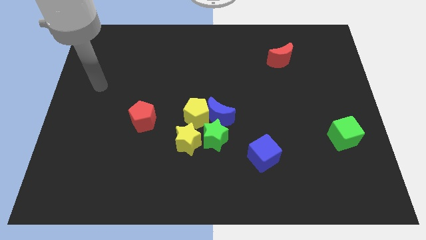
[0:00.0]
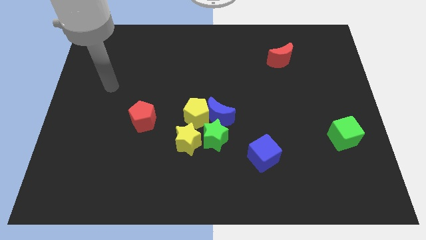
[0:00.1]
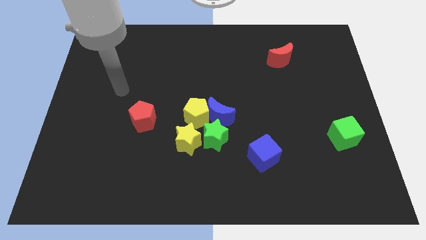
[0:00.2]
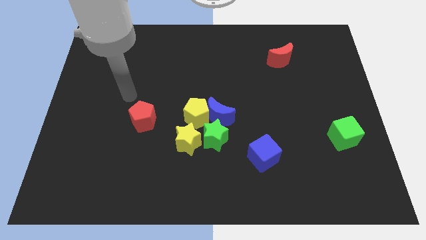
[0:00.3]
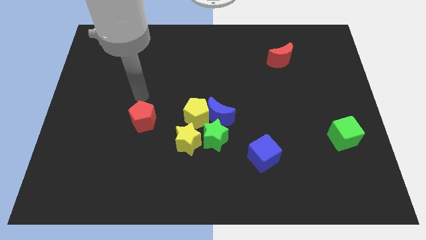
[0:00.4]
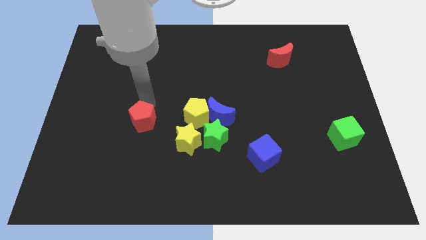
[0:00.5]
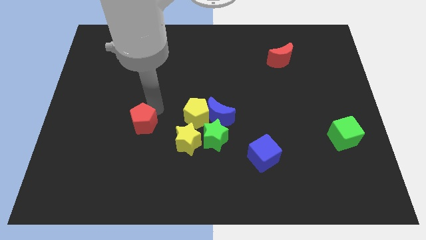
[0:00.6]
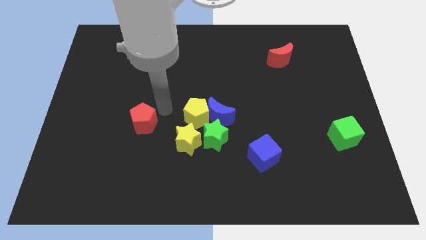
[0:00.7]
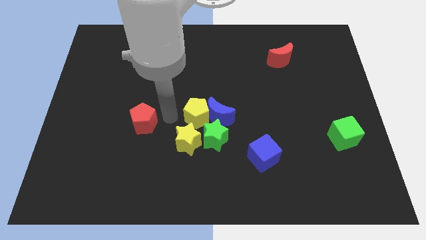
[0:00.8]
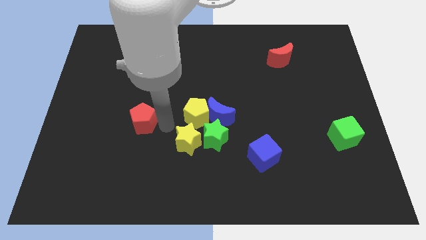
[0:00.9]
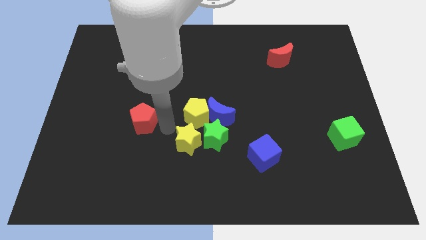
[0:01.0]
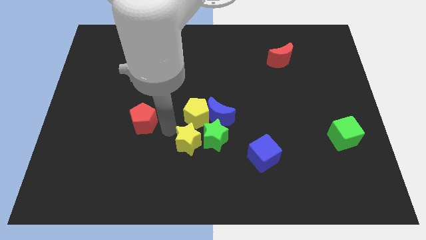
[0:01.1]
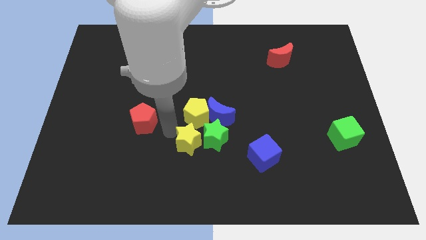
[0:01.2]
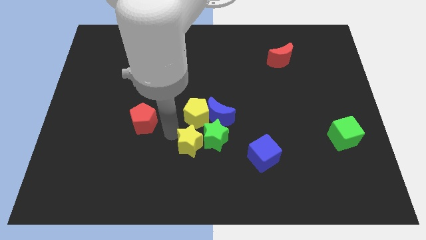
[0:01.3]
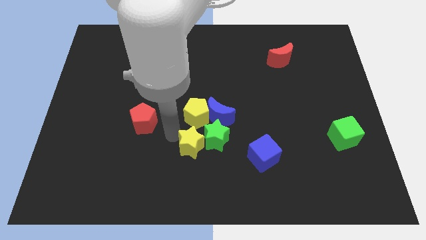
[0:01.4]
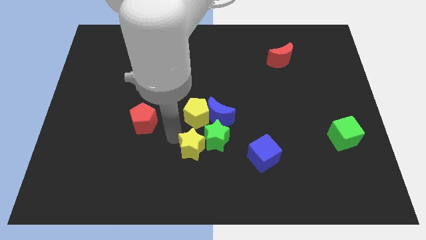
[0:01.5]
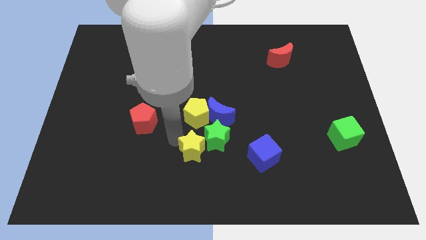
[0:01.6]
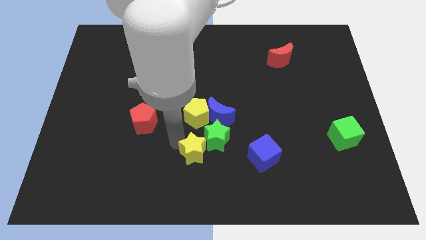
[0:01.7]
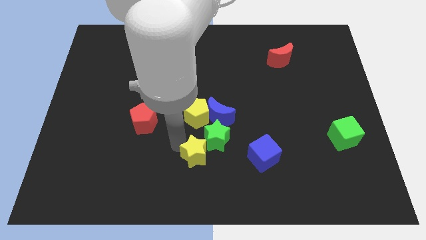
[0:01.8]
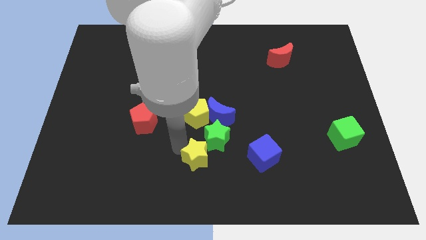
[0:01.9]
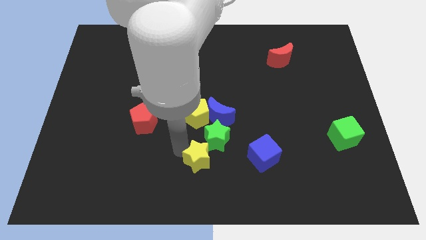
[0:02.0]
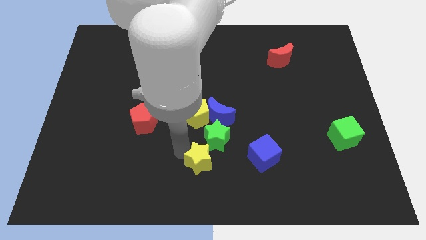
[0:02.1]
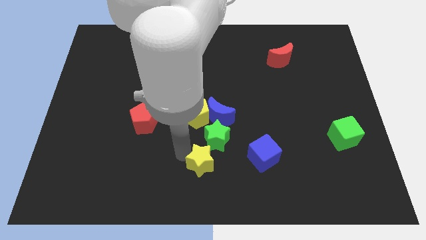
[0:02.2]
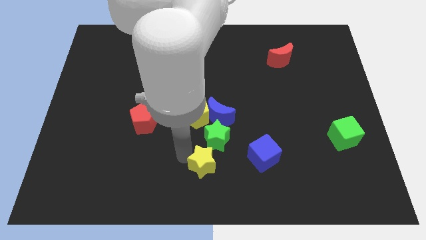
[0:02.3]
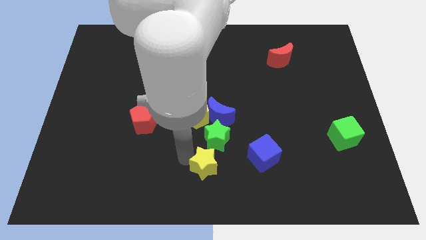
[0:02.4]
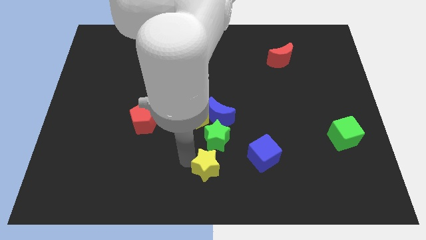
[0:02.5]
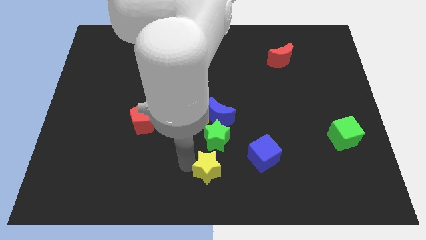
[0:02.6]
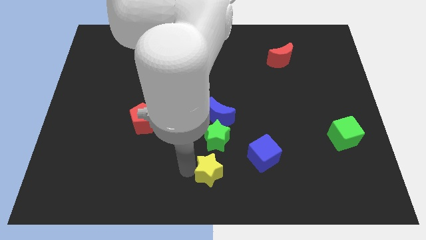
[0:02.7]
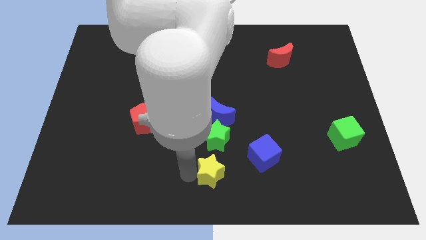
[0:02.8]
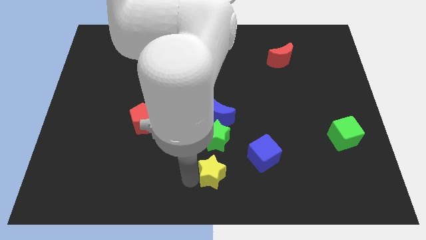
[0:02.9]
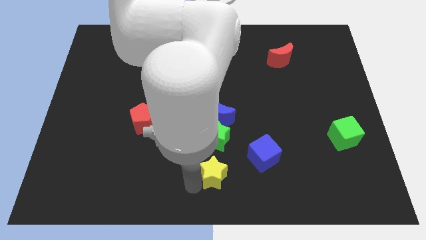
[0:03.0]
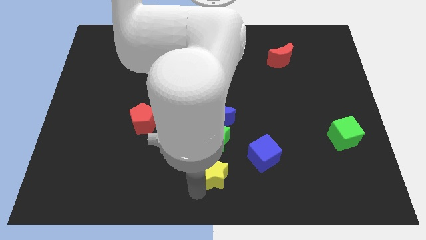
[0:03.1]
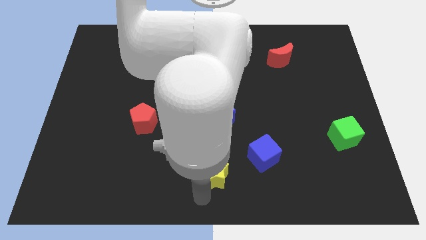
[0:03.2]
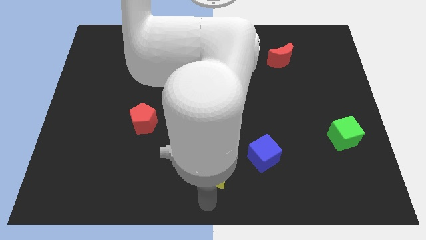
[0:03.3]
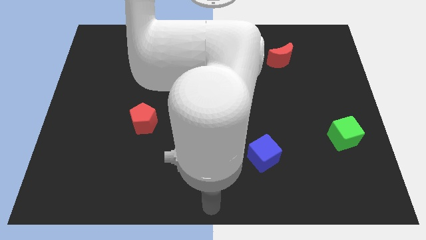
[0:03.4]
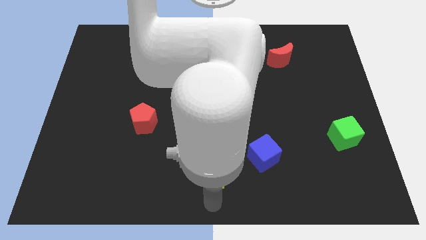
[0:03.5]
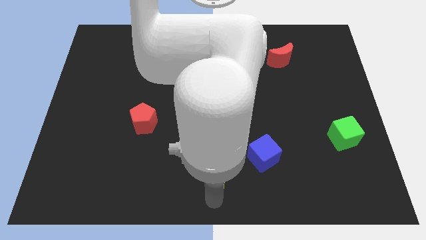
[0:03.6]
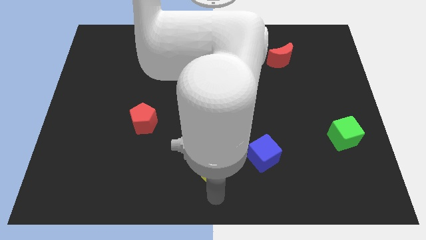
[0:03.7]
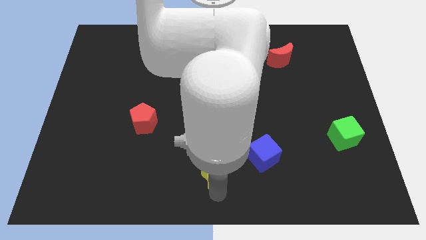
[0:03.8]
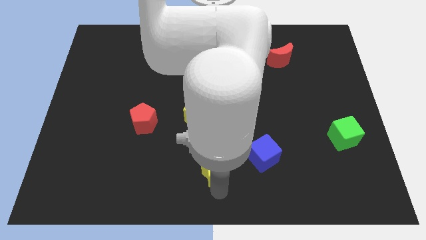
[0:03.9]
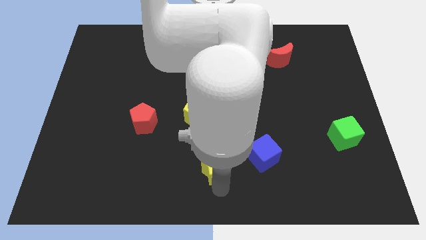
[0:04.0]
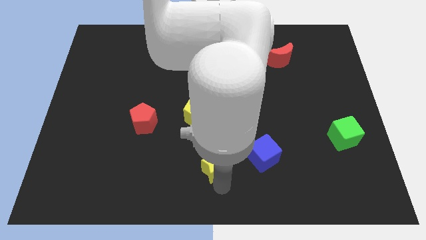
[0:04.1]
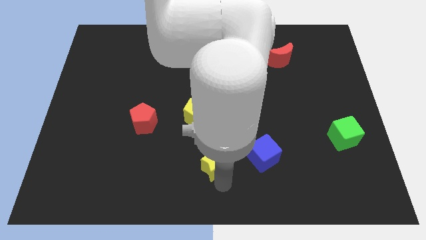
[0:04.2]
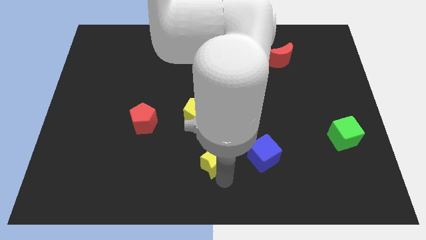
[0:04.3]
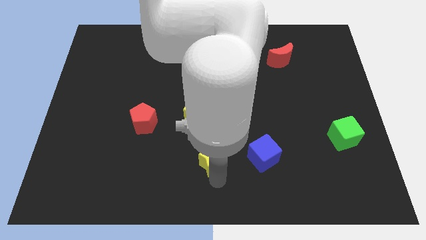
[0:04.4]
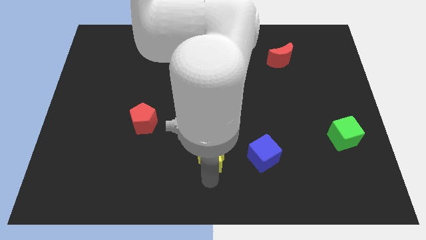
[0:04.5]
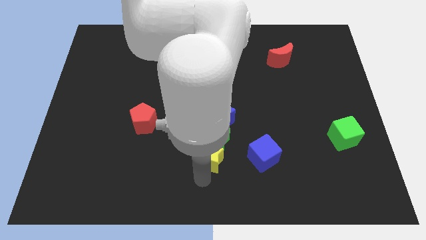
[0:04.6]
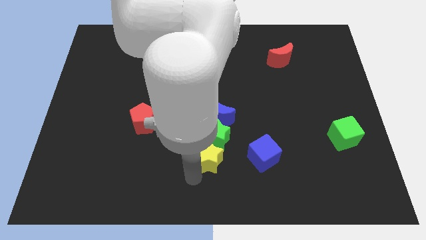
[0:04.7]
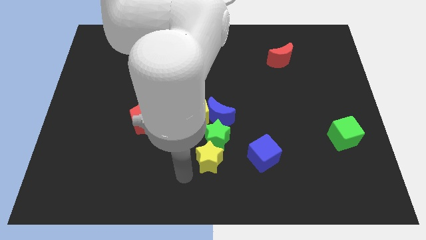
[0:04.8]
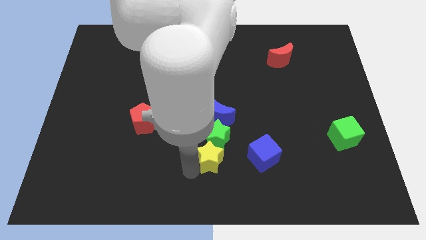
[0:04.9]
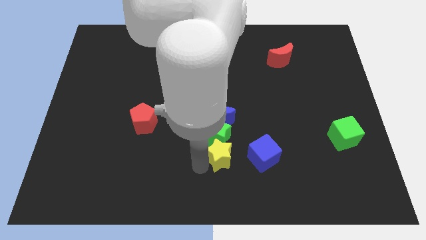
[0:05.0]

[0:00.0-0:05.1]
move the yellow star somewhat to the right

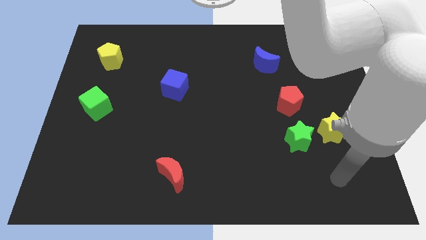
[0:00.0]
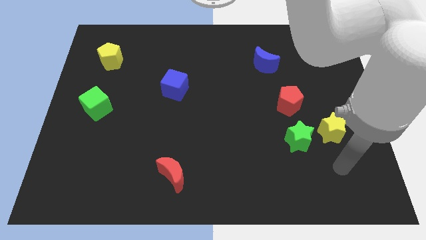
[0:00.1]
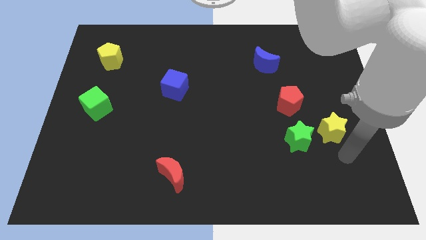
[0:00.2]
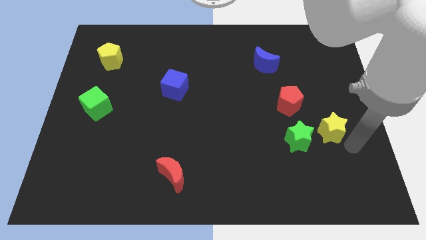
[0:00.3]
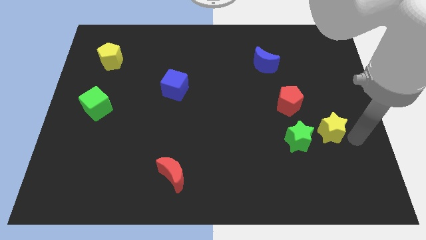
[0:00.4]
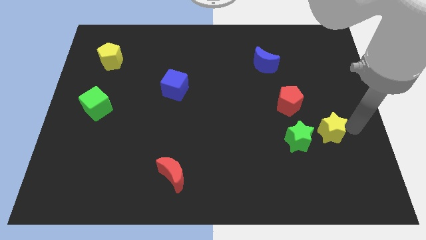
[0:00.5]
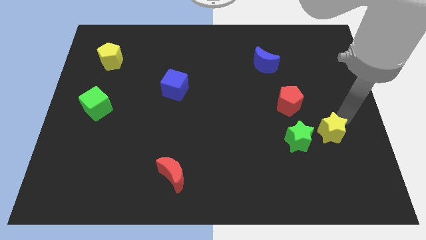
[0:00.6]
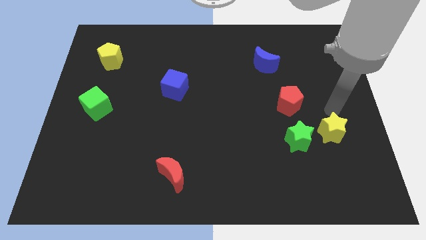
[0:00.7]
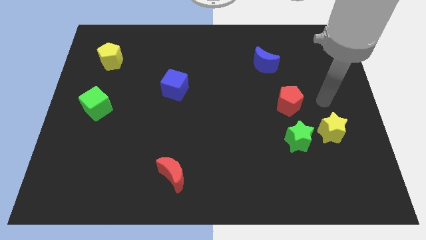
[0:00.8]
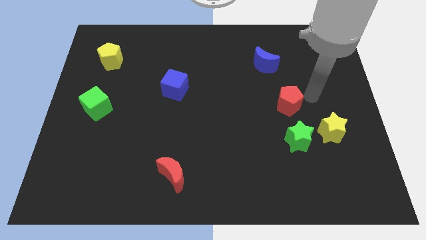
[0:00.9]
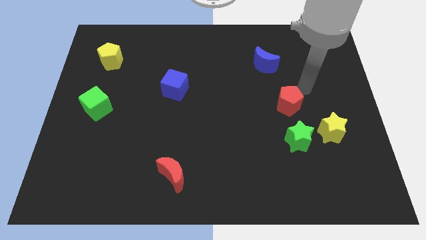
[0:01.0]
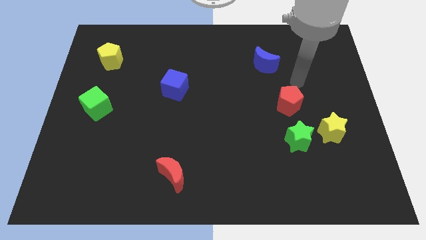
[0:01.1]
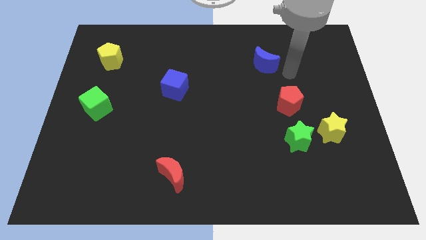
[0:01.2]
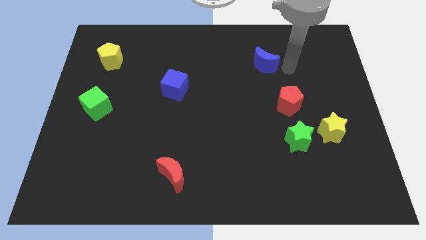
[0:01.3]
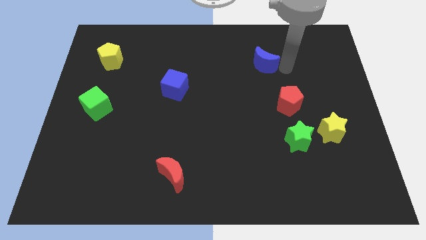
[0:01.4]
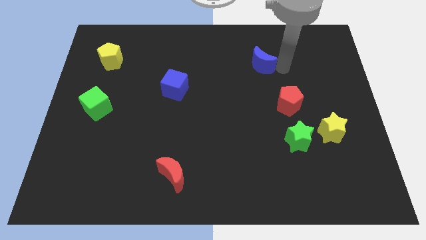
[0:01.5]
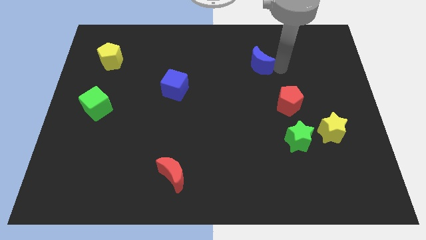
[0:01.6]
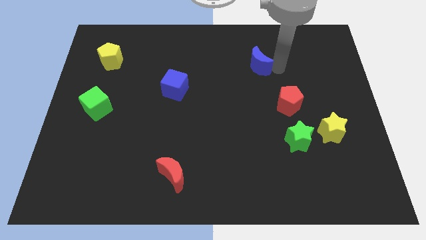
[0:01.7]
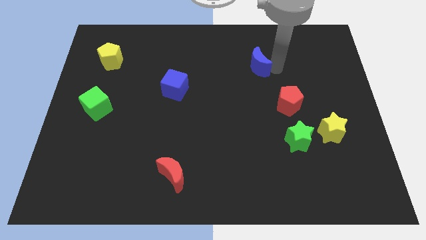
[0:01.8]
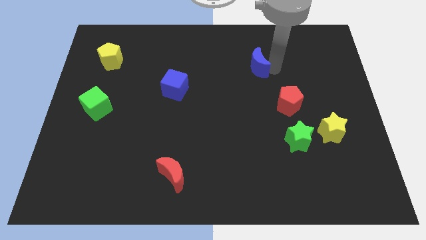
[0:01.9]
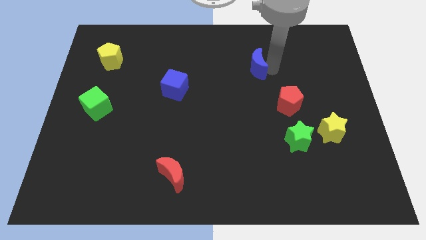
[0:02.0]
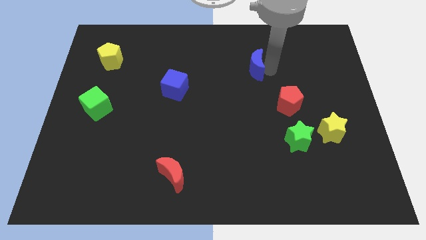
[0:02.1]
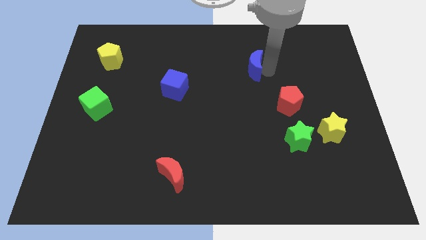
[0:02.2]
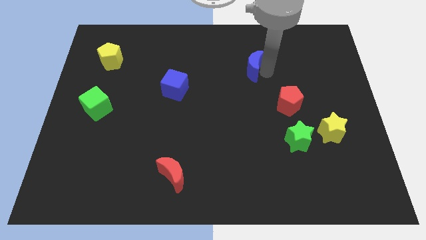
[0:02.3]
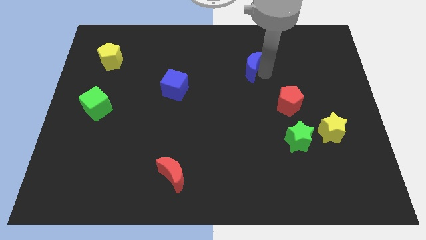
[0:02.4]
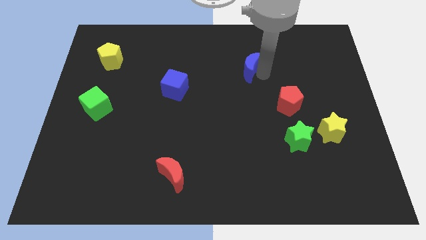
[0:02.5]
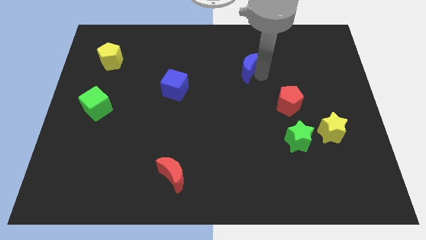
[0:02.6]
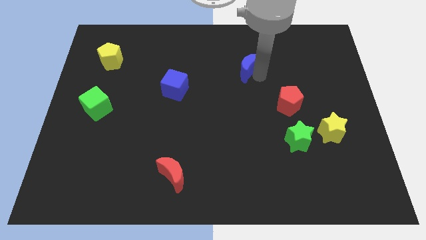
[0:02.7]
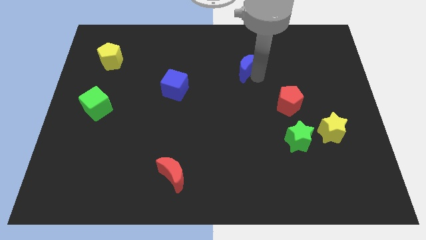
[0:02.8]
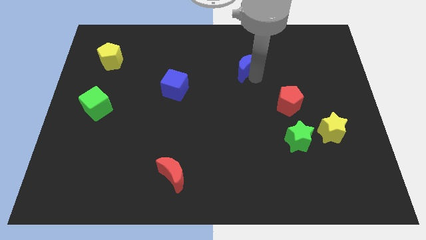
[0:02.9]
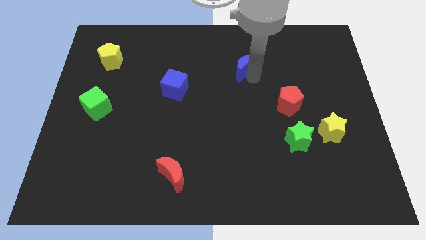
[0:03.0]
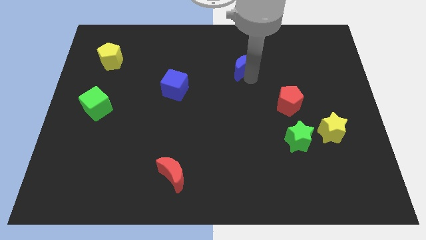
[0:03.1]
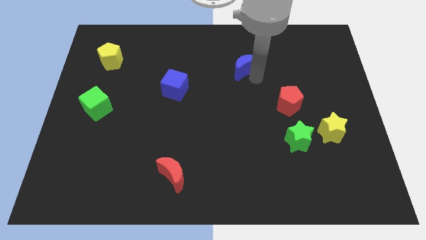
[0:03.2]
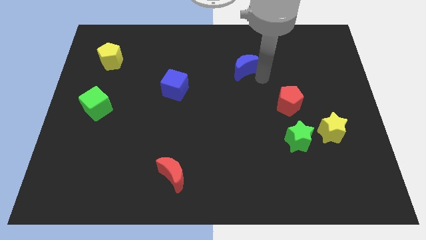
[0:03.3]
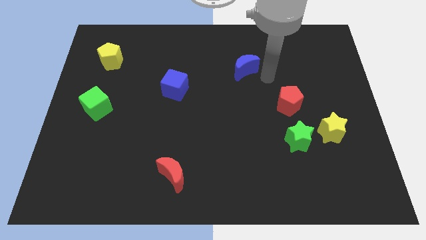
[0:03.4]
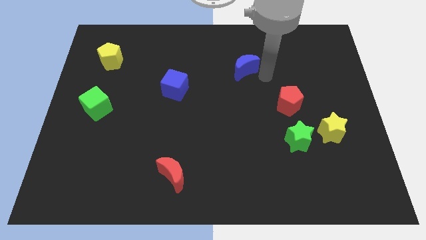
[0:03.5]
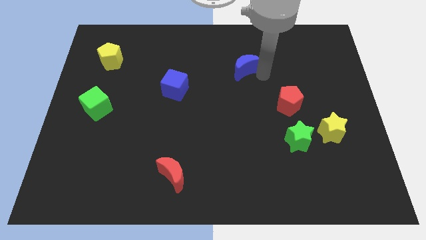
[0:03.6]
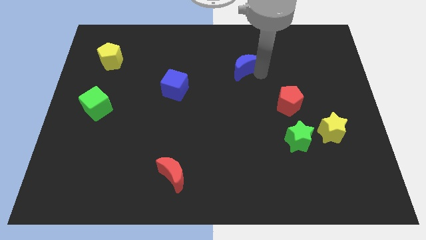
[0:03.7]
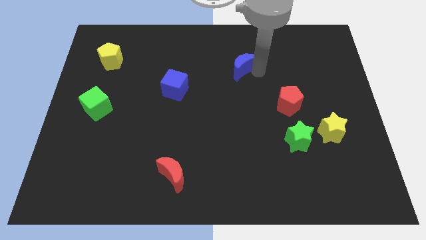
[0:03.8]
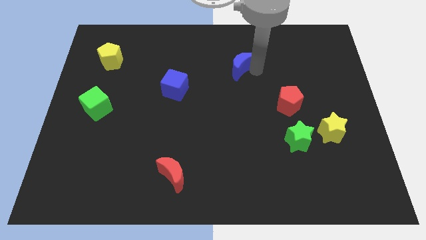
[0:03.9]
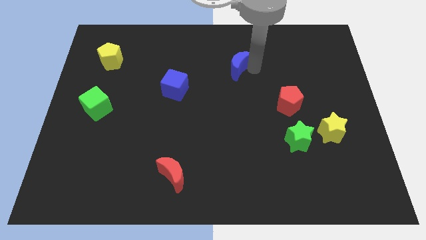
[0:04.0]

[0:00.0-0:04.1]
slide the blue moon a little left
